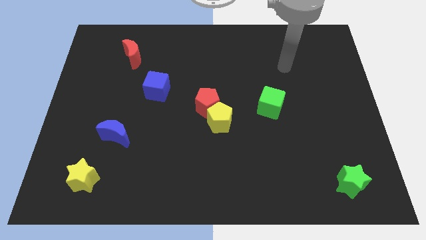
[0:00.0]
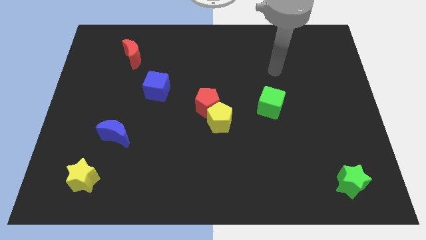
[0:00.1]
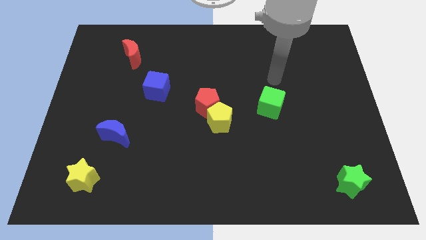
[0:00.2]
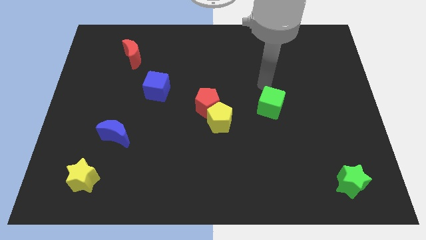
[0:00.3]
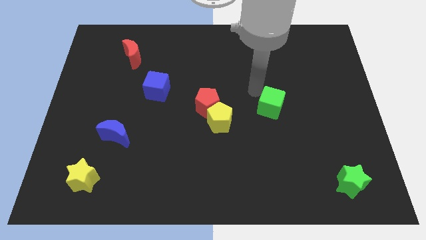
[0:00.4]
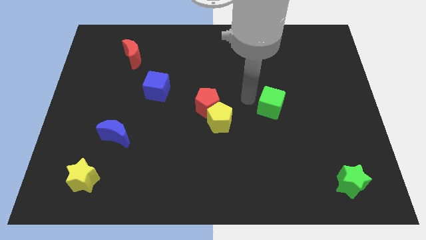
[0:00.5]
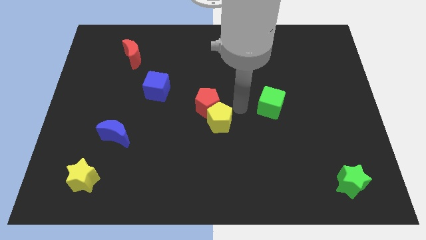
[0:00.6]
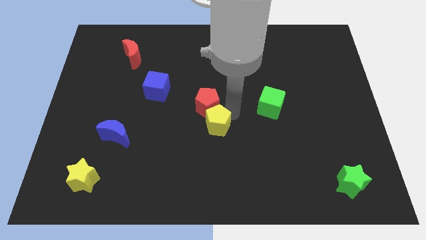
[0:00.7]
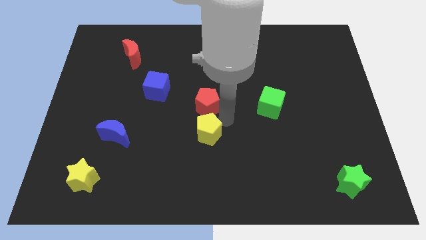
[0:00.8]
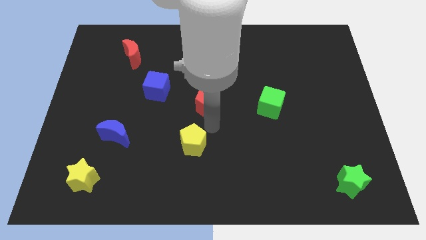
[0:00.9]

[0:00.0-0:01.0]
pull the red pentagon apart from the yellow pentagon

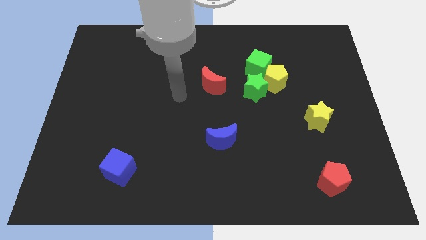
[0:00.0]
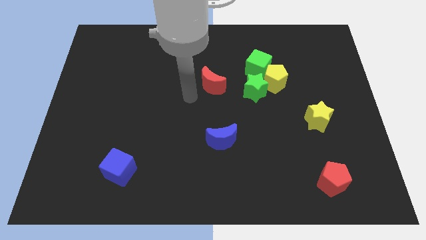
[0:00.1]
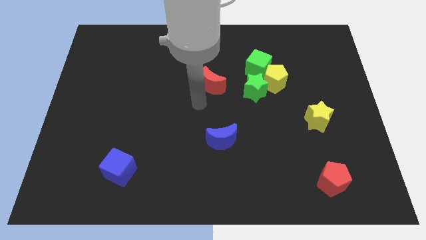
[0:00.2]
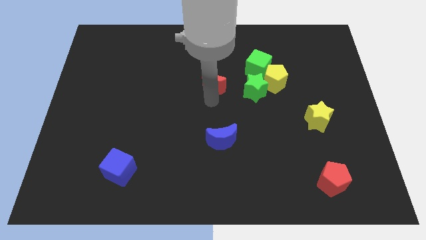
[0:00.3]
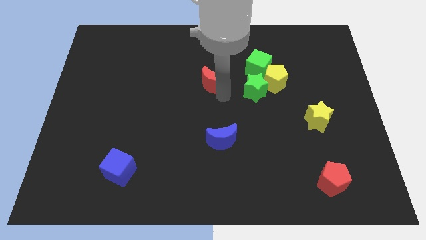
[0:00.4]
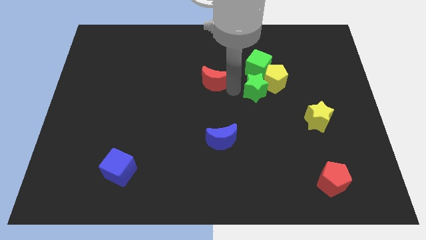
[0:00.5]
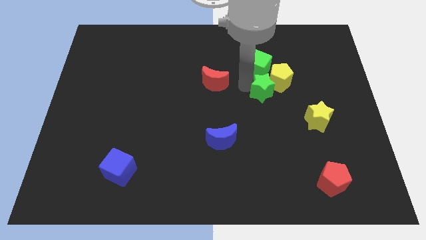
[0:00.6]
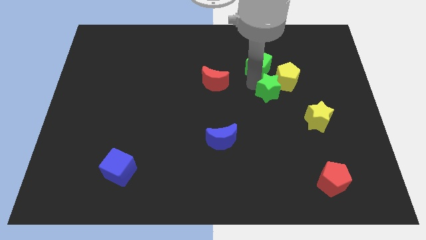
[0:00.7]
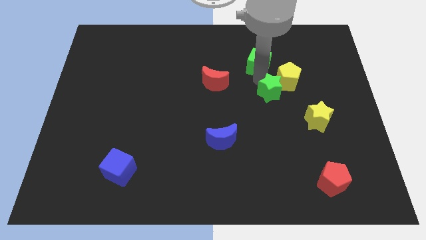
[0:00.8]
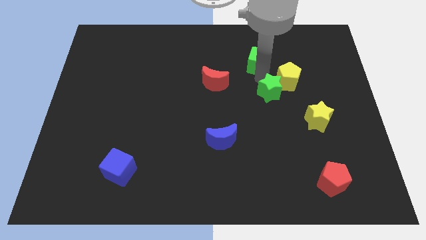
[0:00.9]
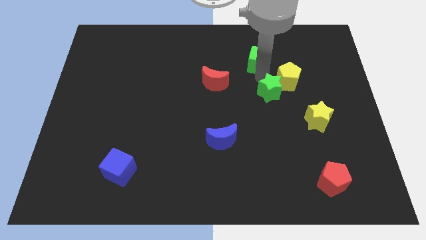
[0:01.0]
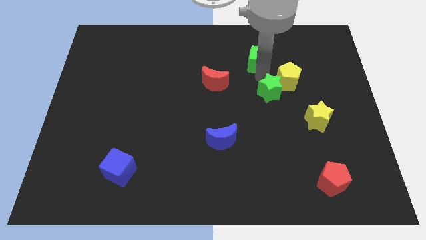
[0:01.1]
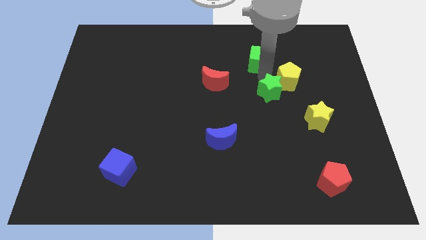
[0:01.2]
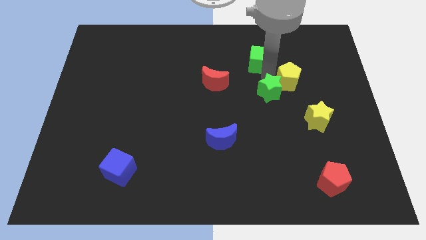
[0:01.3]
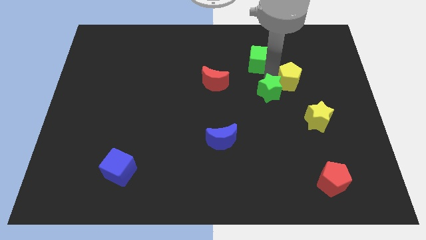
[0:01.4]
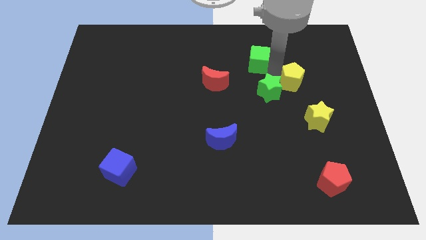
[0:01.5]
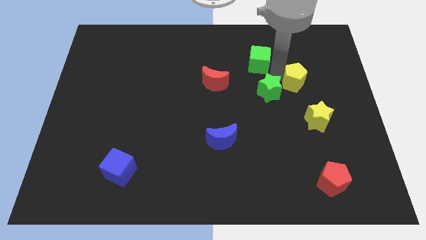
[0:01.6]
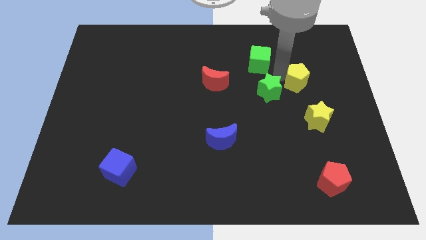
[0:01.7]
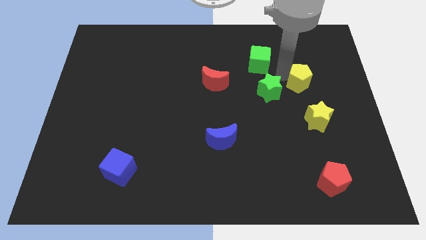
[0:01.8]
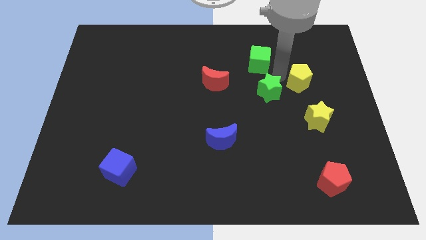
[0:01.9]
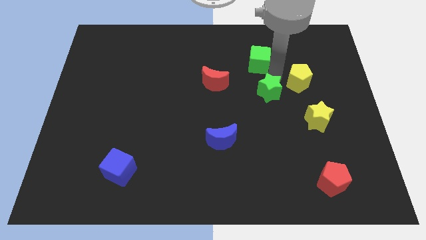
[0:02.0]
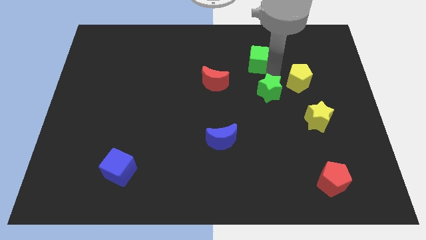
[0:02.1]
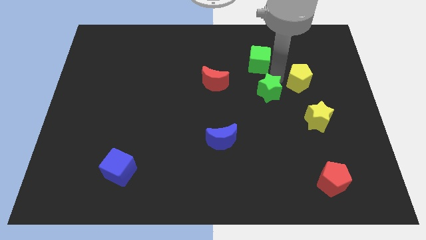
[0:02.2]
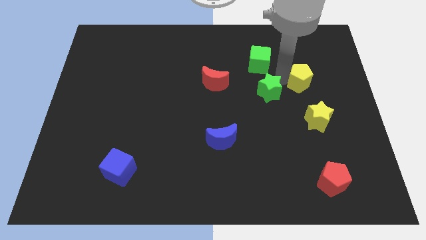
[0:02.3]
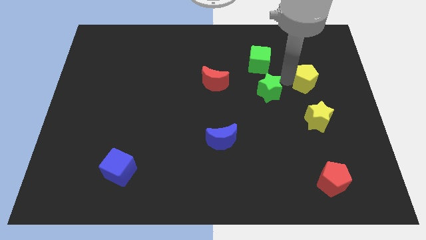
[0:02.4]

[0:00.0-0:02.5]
separate the yellow pentagon from the green cube and green star

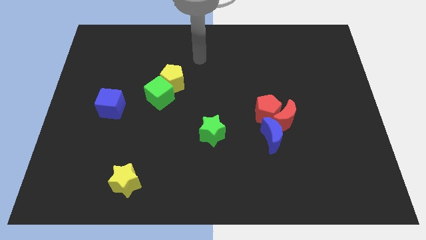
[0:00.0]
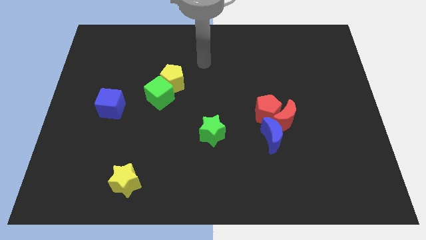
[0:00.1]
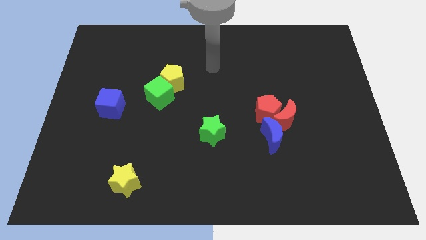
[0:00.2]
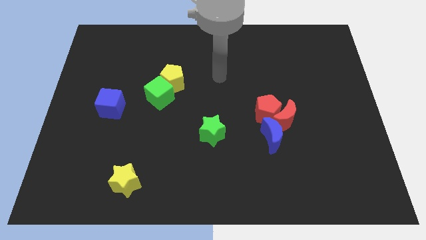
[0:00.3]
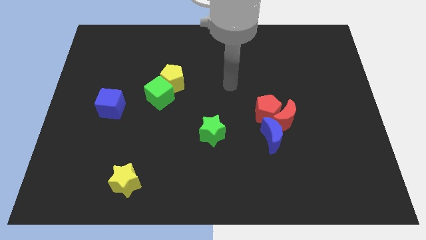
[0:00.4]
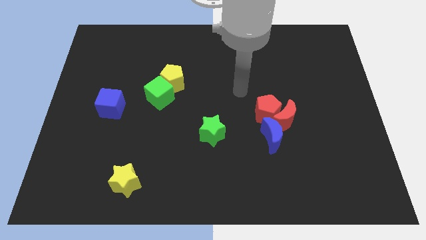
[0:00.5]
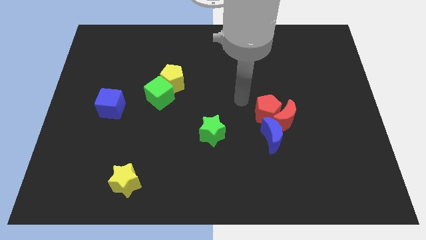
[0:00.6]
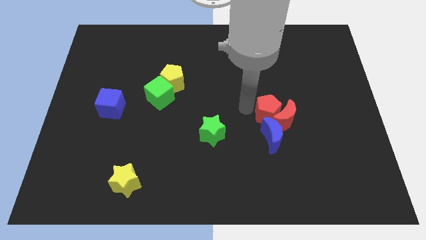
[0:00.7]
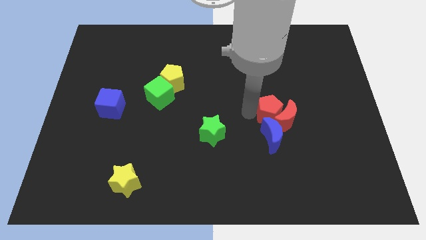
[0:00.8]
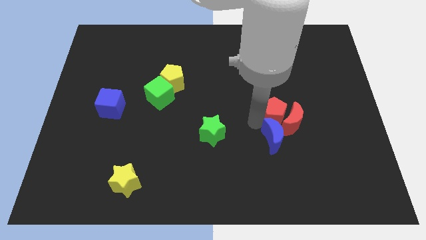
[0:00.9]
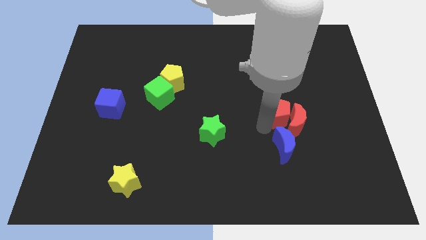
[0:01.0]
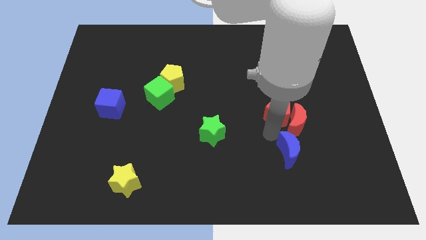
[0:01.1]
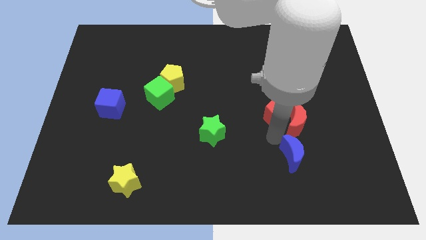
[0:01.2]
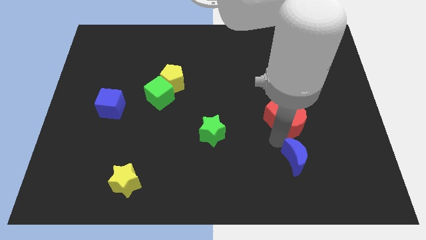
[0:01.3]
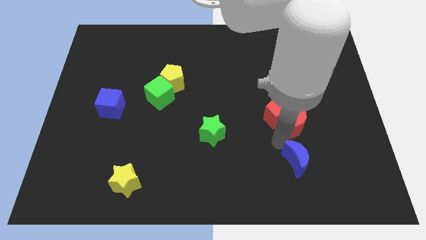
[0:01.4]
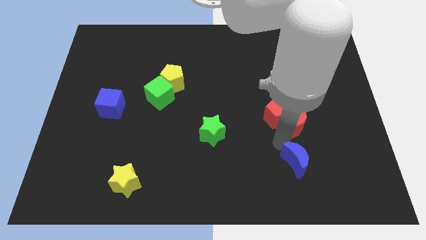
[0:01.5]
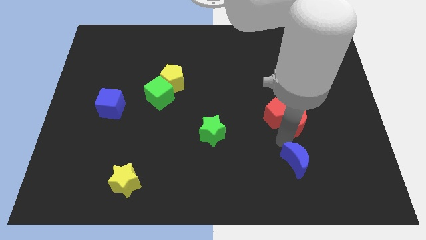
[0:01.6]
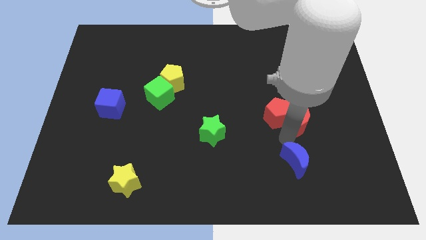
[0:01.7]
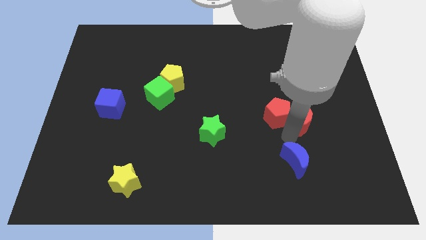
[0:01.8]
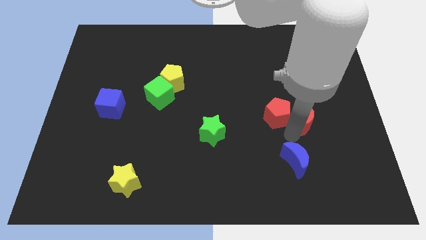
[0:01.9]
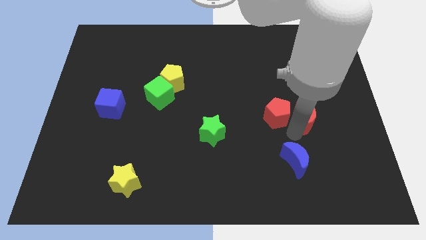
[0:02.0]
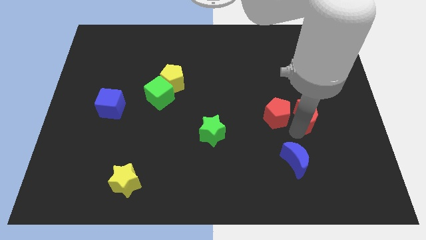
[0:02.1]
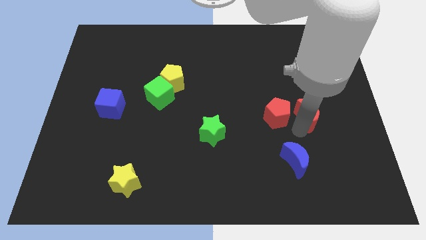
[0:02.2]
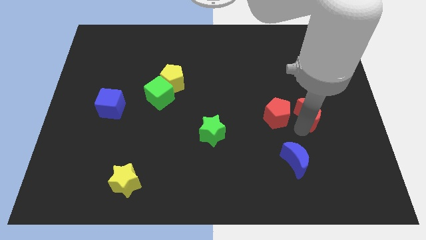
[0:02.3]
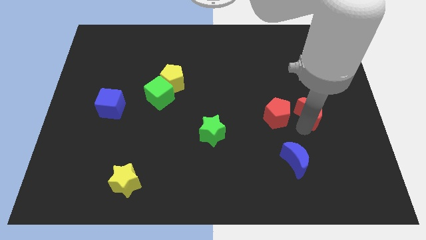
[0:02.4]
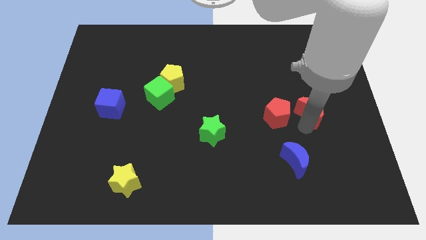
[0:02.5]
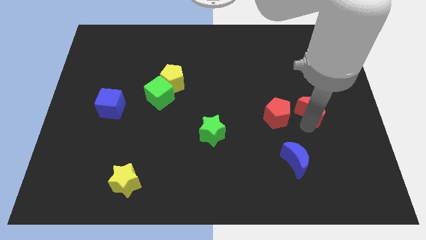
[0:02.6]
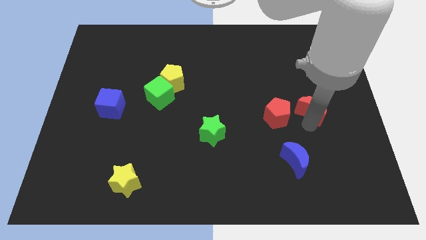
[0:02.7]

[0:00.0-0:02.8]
move the red moon away from the red pentagon and blue moon

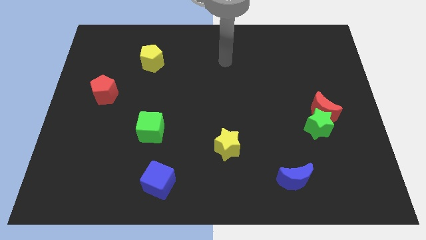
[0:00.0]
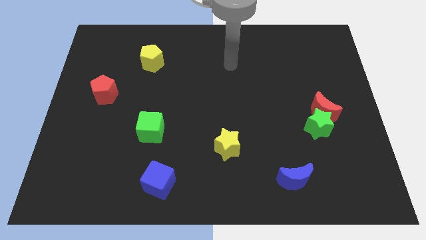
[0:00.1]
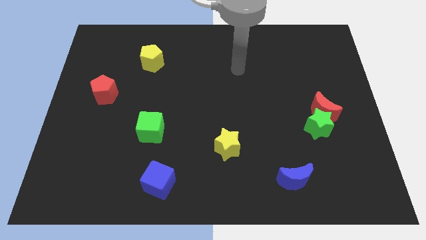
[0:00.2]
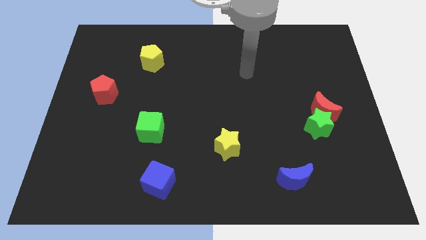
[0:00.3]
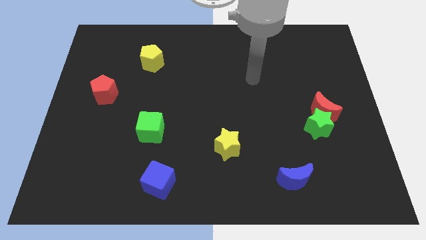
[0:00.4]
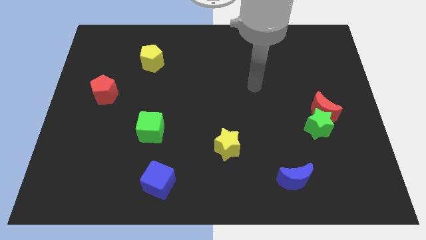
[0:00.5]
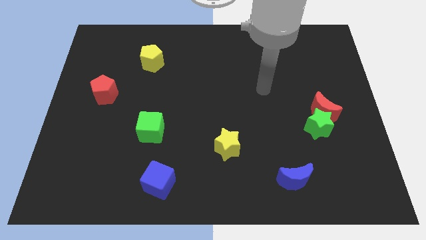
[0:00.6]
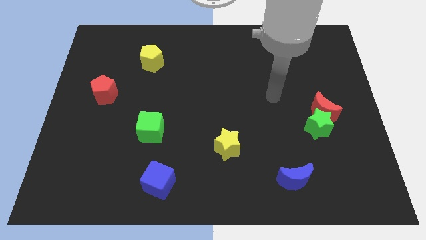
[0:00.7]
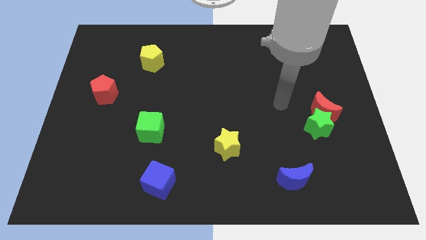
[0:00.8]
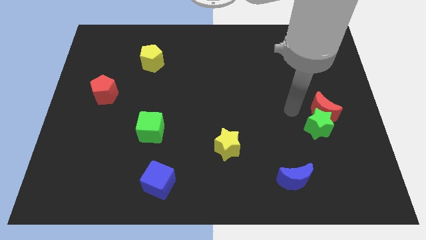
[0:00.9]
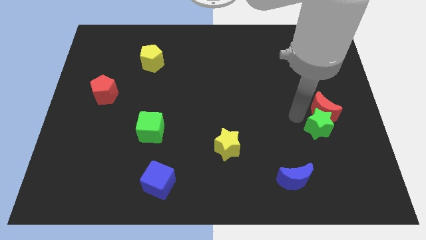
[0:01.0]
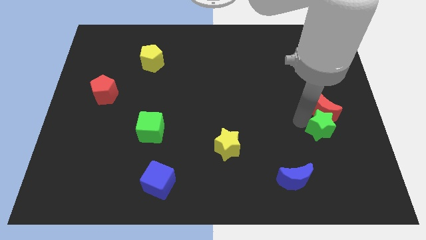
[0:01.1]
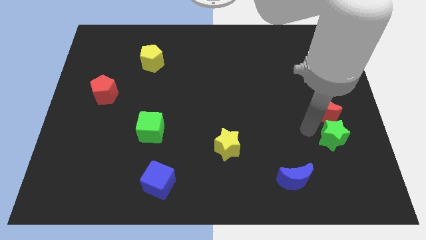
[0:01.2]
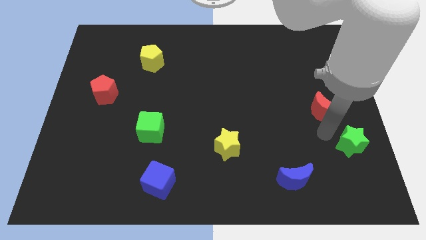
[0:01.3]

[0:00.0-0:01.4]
move the red moon away from the green star

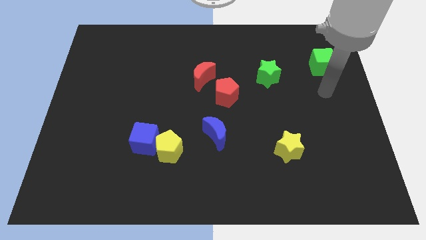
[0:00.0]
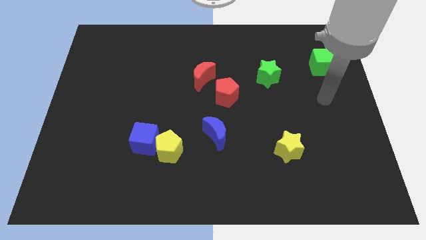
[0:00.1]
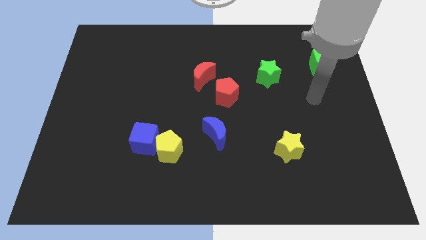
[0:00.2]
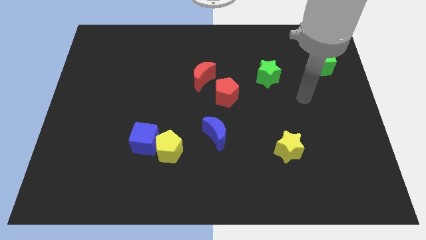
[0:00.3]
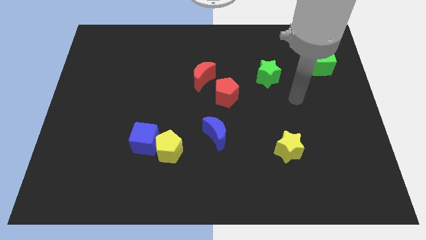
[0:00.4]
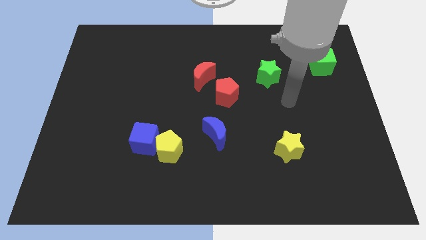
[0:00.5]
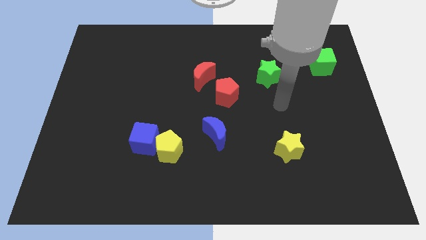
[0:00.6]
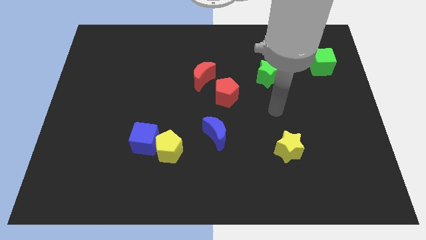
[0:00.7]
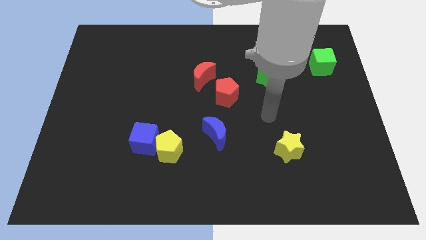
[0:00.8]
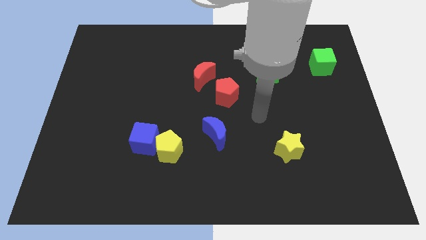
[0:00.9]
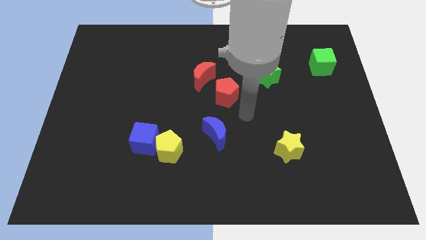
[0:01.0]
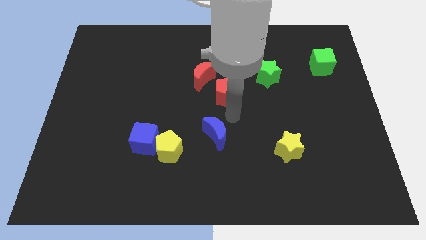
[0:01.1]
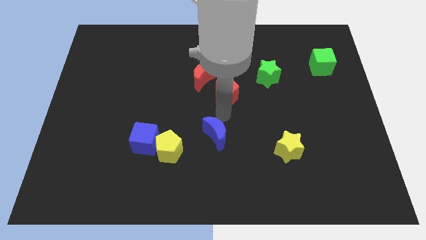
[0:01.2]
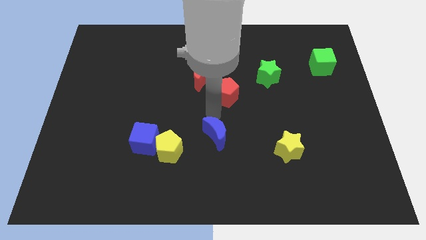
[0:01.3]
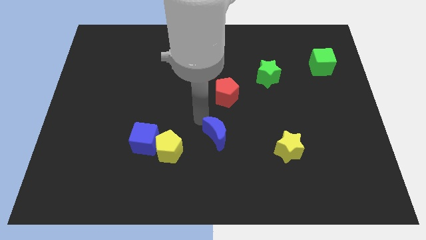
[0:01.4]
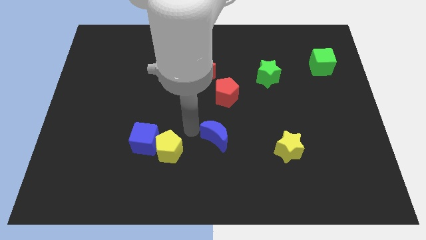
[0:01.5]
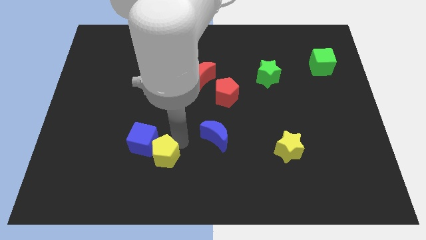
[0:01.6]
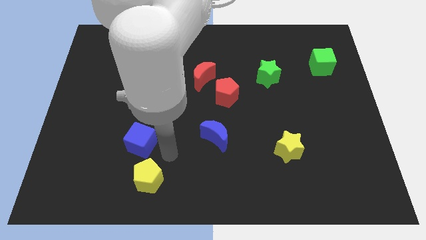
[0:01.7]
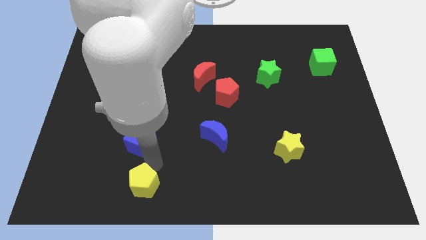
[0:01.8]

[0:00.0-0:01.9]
separate the blue cube from the yellow pentagon
